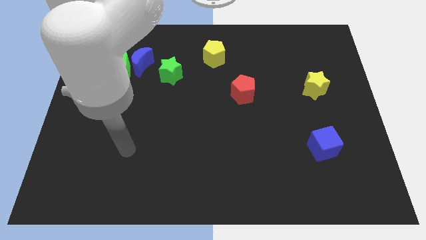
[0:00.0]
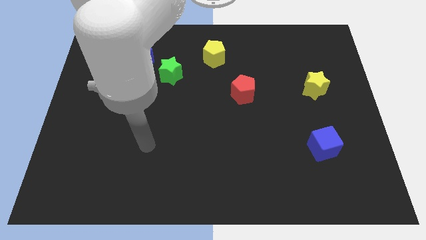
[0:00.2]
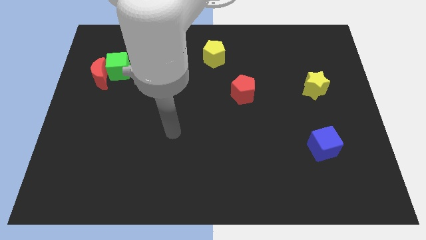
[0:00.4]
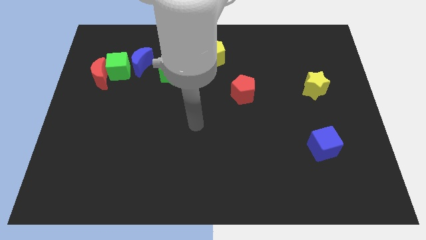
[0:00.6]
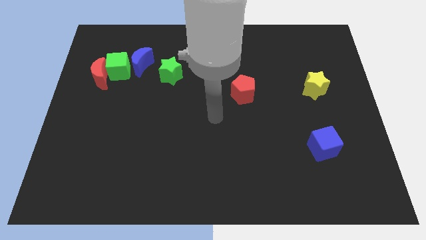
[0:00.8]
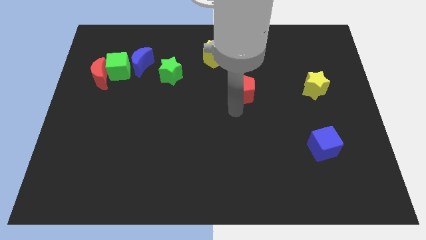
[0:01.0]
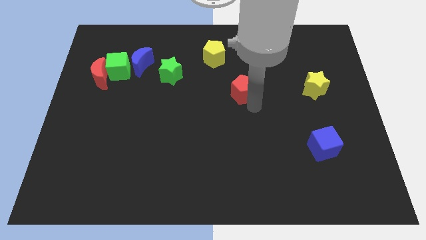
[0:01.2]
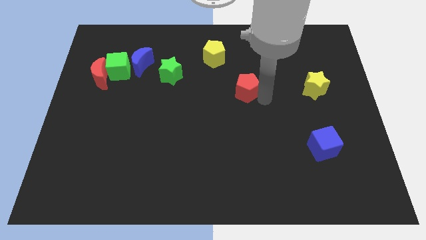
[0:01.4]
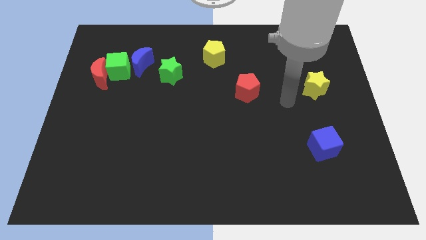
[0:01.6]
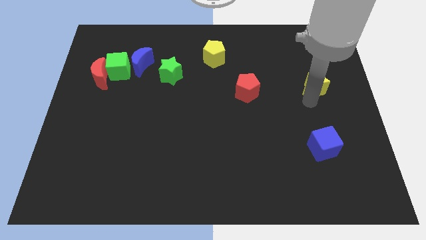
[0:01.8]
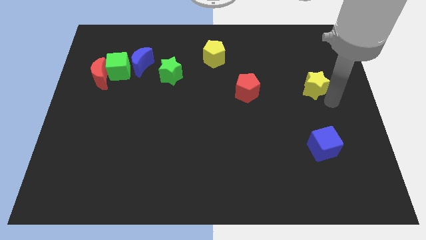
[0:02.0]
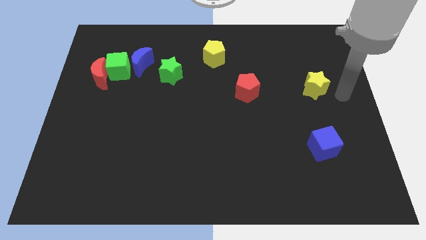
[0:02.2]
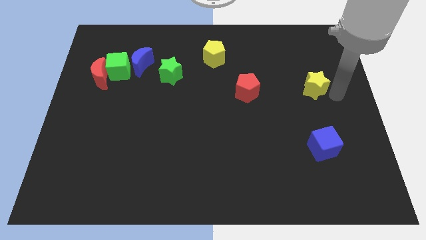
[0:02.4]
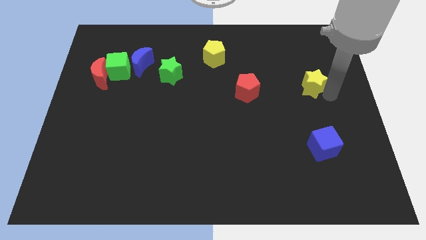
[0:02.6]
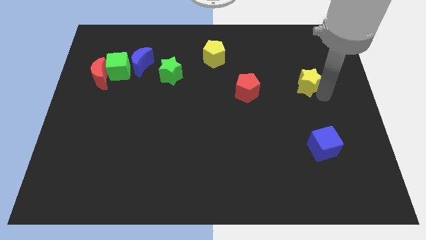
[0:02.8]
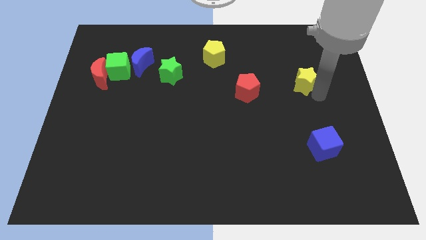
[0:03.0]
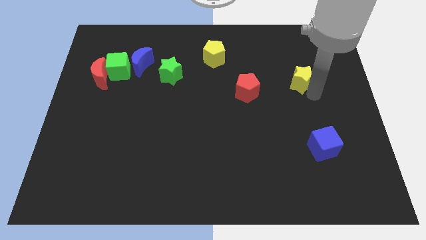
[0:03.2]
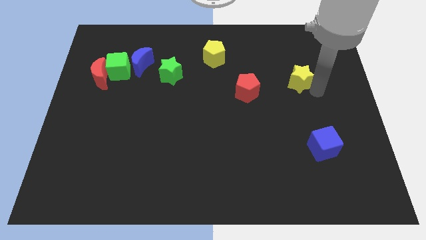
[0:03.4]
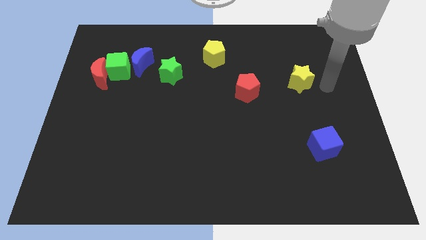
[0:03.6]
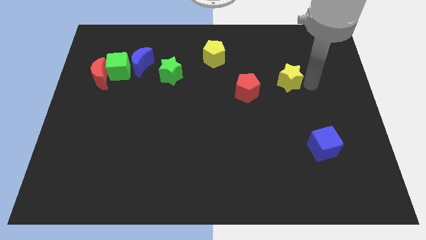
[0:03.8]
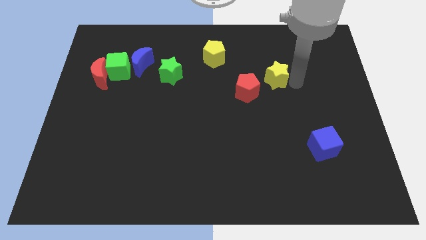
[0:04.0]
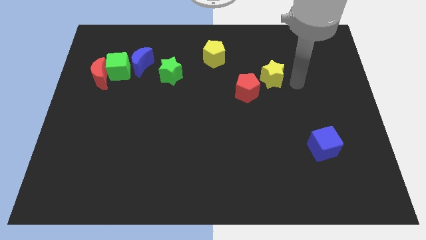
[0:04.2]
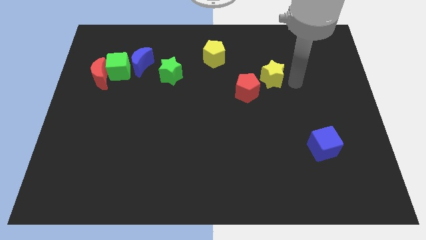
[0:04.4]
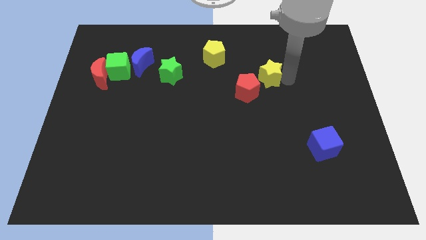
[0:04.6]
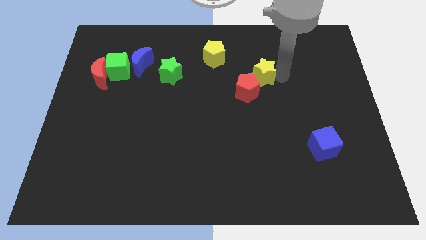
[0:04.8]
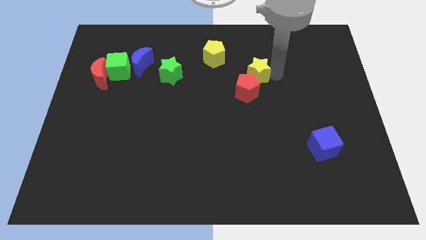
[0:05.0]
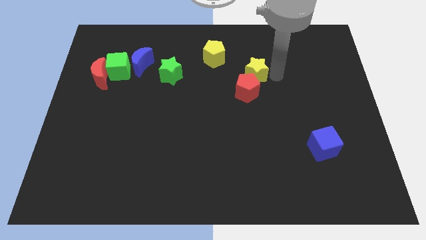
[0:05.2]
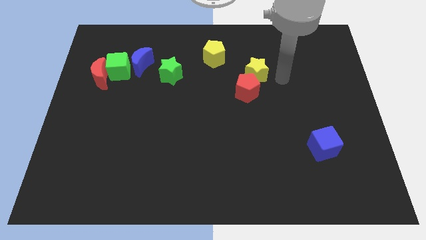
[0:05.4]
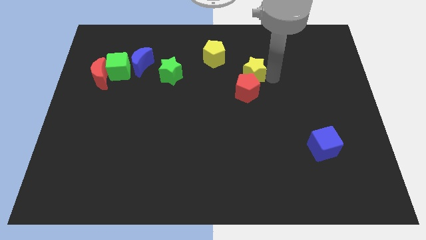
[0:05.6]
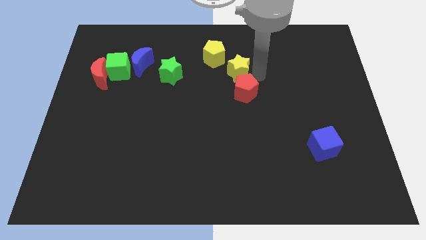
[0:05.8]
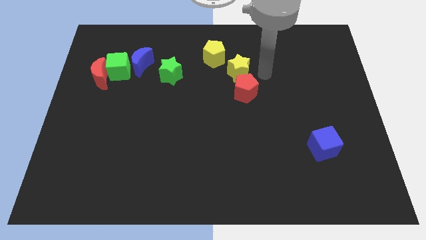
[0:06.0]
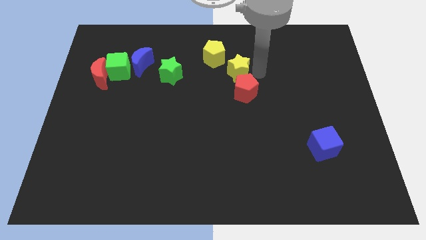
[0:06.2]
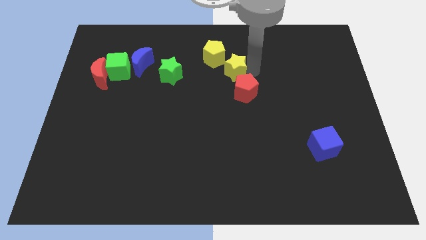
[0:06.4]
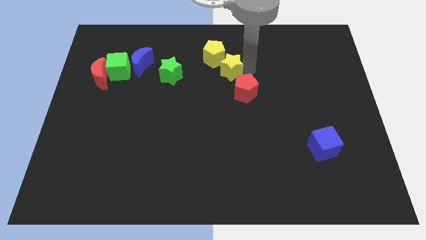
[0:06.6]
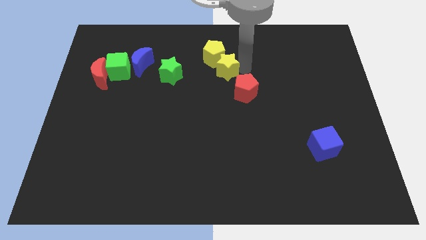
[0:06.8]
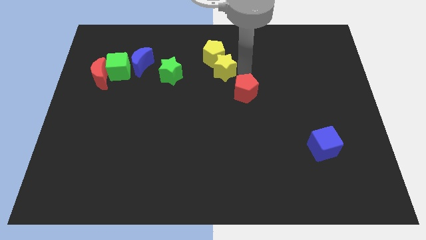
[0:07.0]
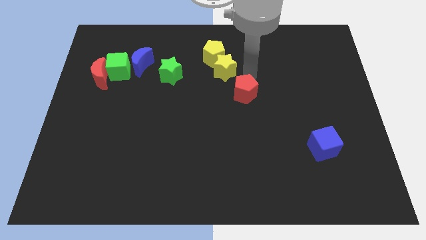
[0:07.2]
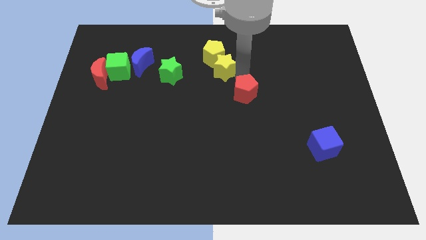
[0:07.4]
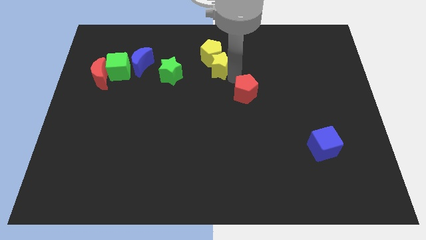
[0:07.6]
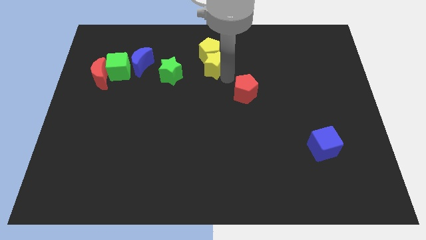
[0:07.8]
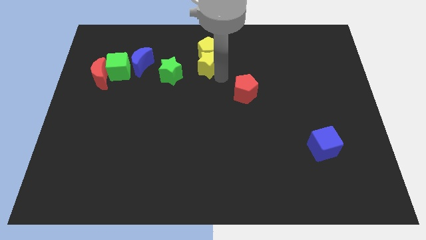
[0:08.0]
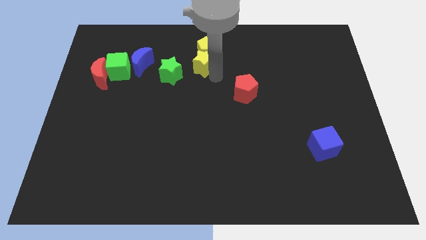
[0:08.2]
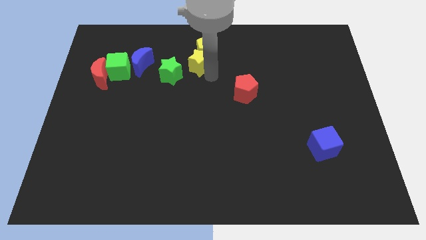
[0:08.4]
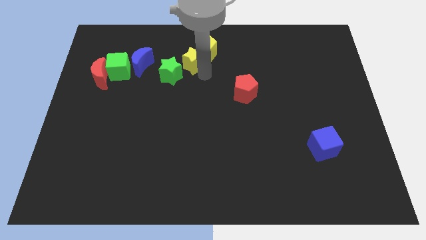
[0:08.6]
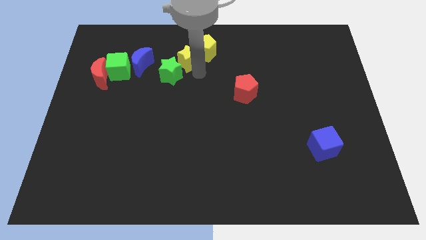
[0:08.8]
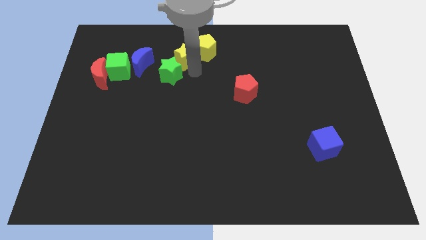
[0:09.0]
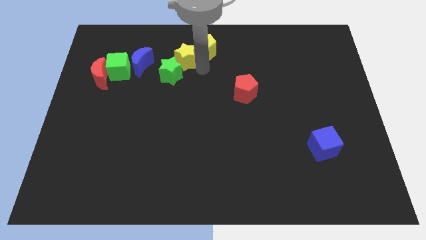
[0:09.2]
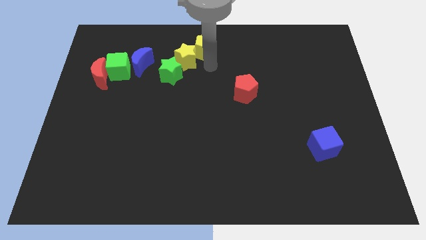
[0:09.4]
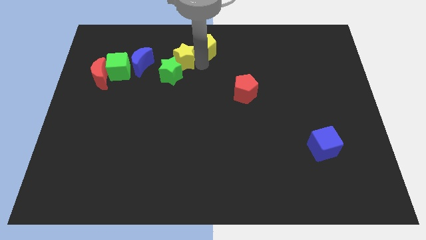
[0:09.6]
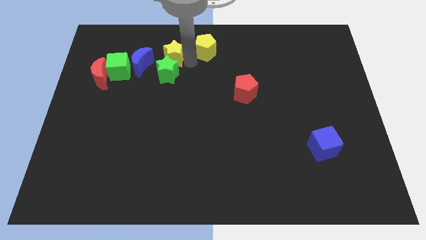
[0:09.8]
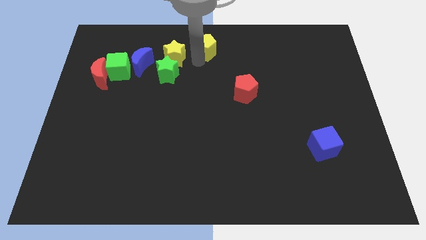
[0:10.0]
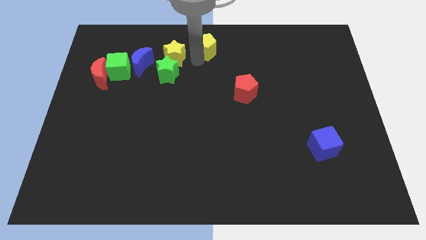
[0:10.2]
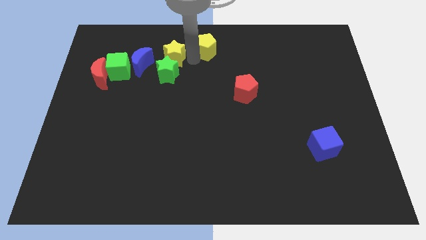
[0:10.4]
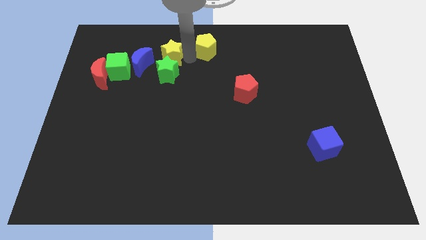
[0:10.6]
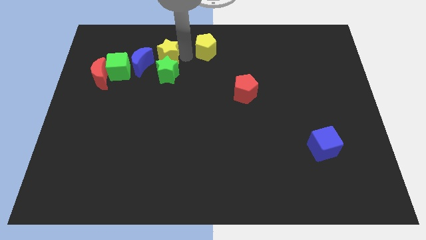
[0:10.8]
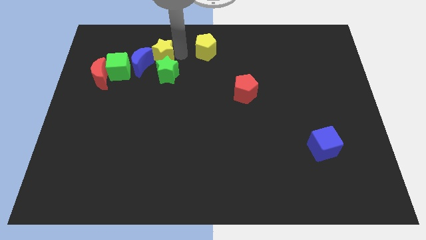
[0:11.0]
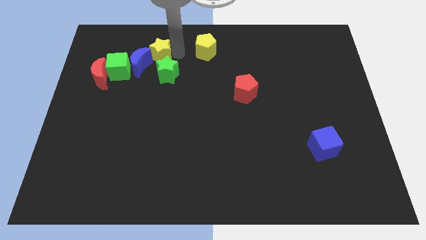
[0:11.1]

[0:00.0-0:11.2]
slide the yellow star diagonally up and to the right of the green cube

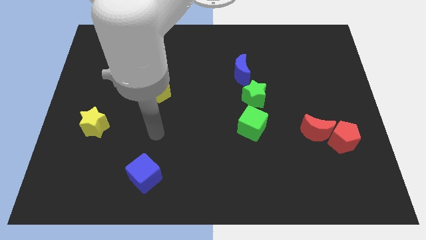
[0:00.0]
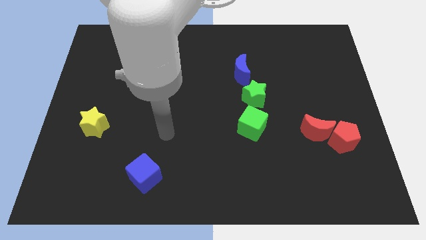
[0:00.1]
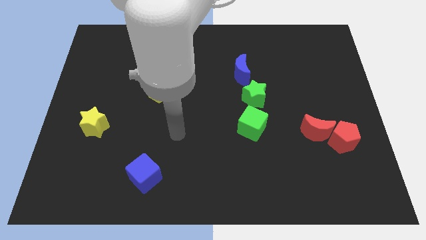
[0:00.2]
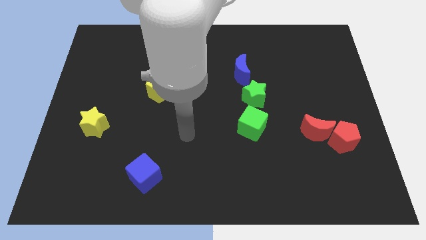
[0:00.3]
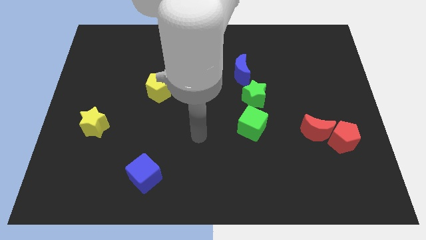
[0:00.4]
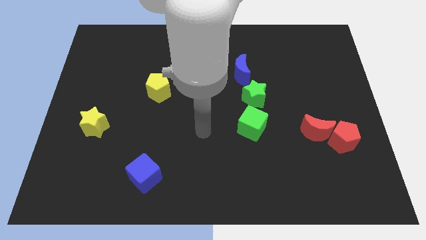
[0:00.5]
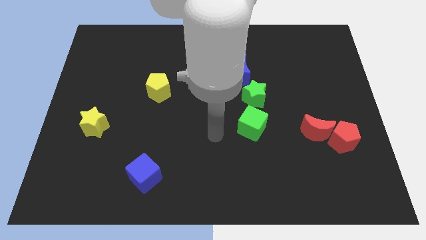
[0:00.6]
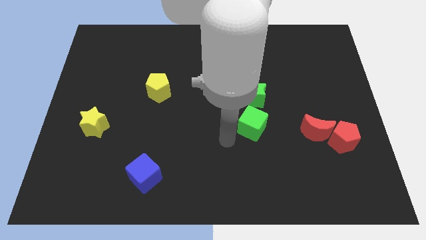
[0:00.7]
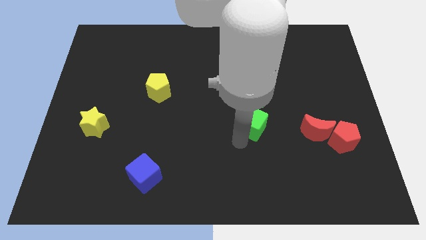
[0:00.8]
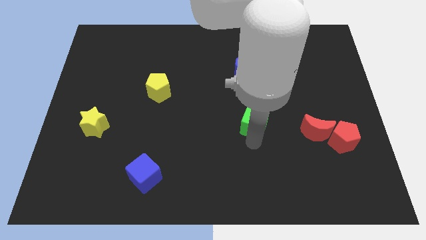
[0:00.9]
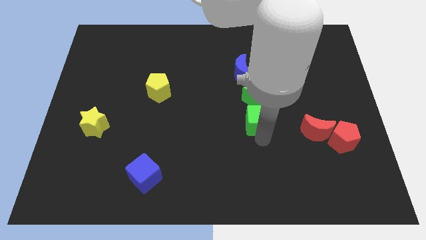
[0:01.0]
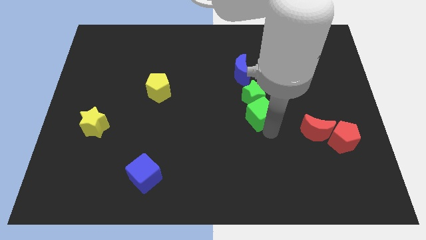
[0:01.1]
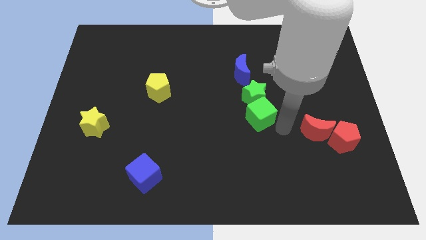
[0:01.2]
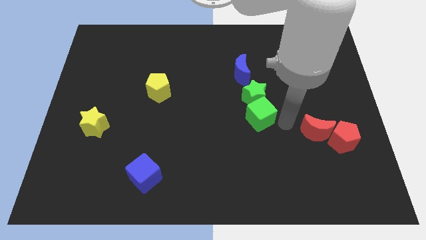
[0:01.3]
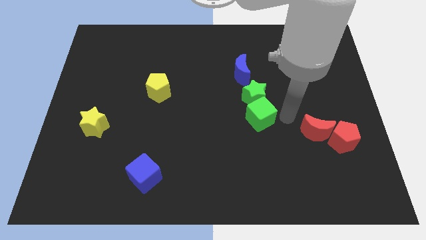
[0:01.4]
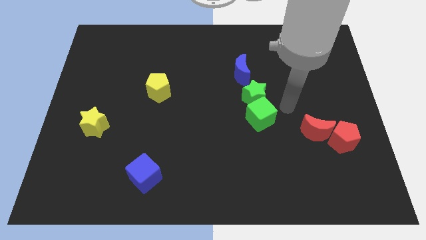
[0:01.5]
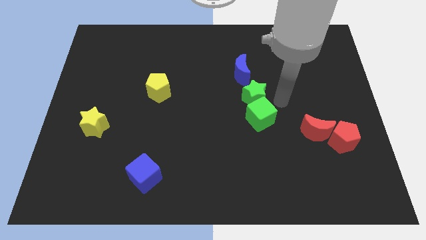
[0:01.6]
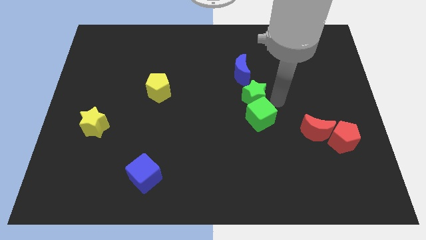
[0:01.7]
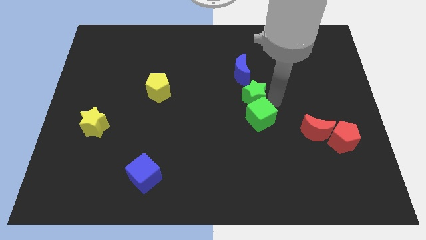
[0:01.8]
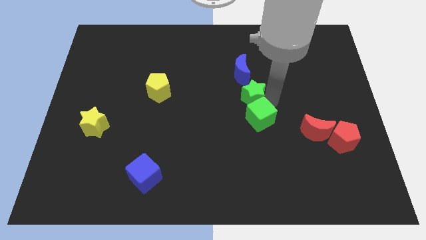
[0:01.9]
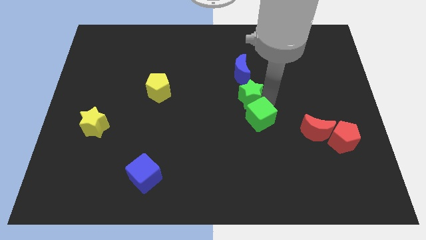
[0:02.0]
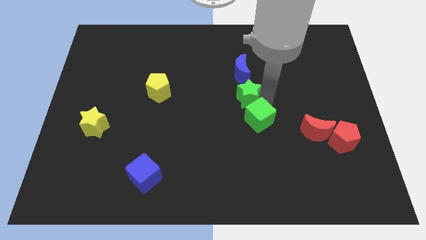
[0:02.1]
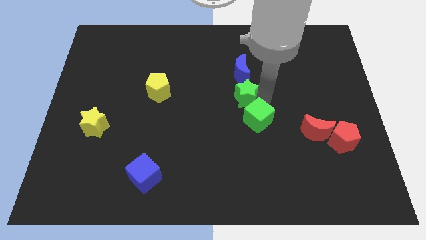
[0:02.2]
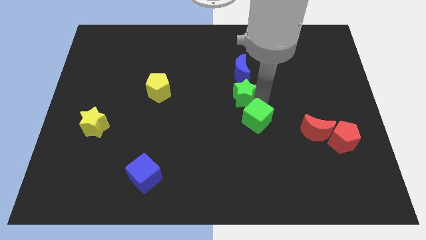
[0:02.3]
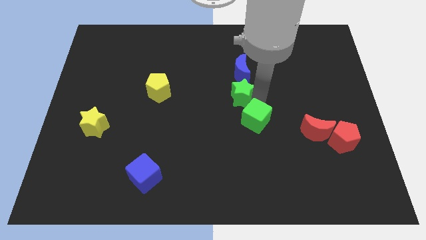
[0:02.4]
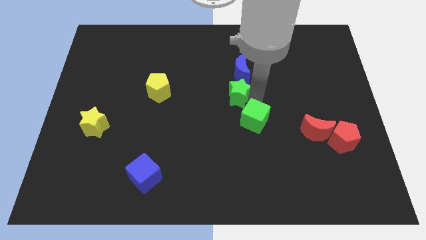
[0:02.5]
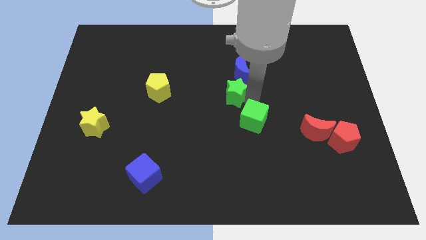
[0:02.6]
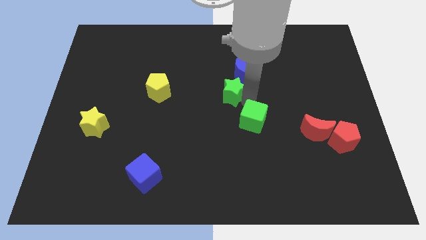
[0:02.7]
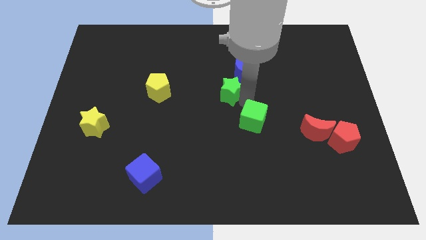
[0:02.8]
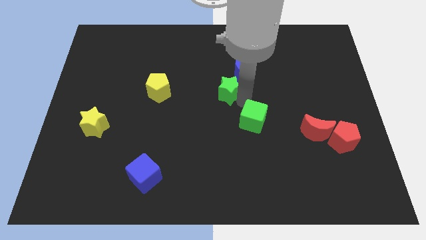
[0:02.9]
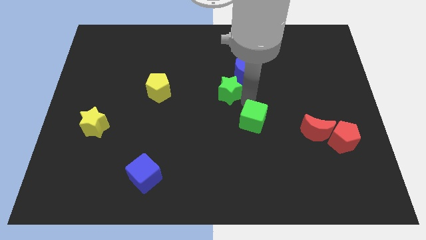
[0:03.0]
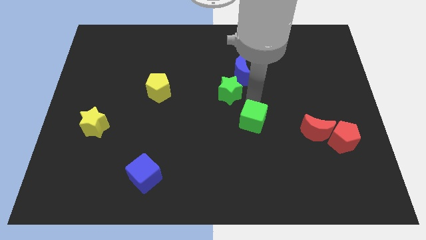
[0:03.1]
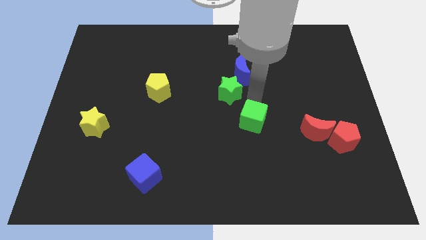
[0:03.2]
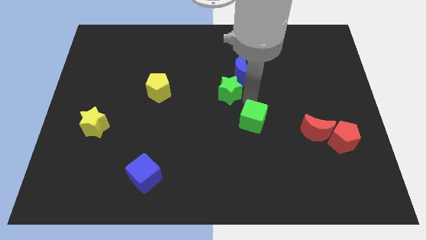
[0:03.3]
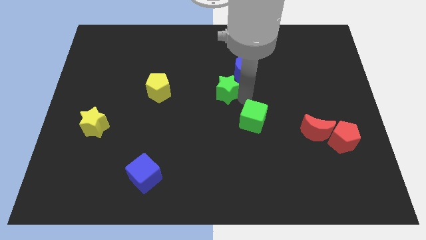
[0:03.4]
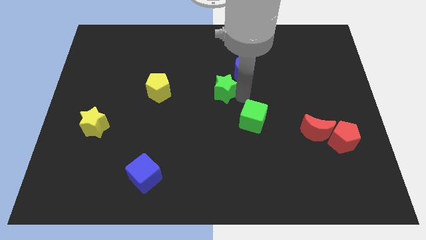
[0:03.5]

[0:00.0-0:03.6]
slide the green star right of the yellow pentagon
